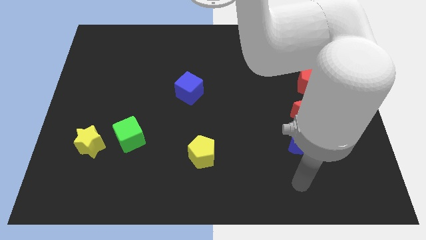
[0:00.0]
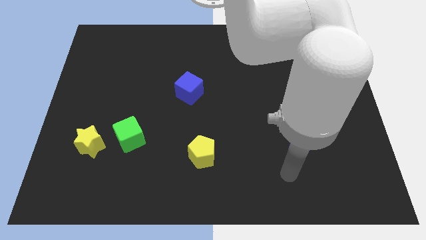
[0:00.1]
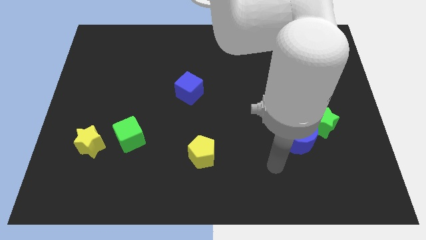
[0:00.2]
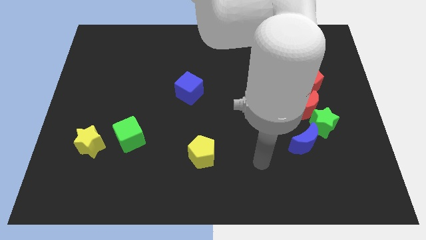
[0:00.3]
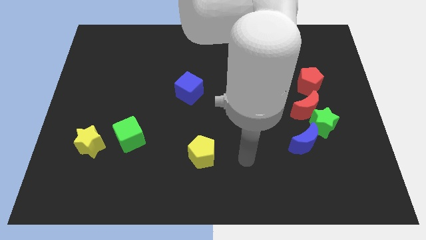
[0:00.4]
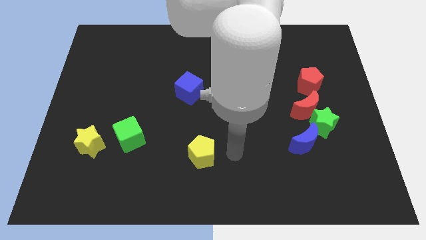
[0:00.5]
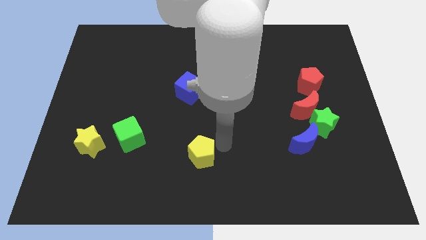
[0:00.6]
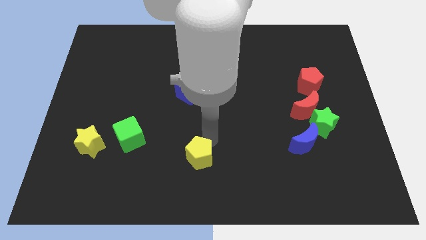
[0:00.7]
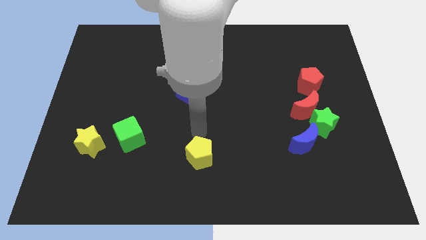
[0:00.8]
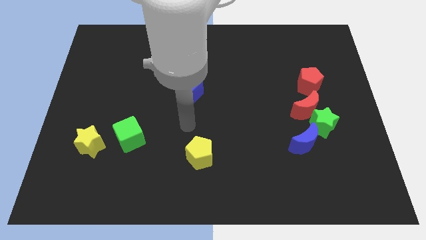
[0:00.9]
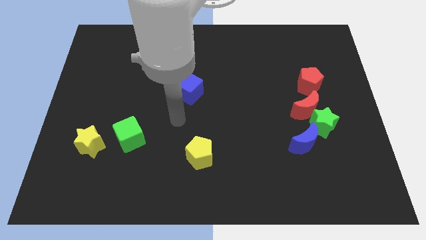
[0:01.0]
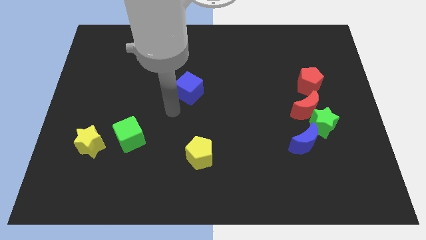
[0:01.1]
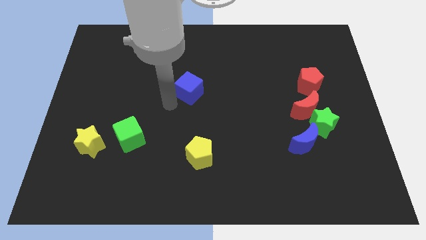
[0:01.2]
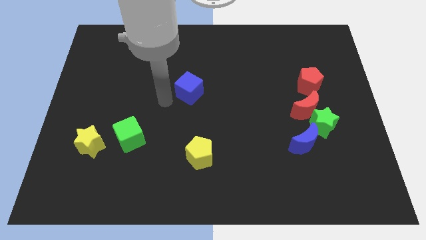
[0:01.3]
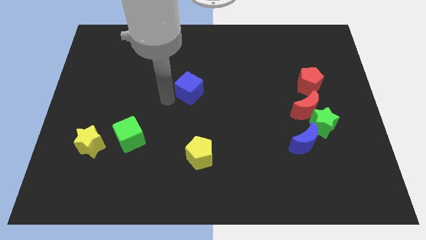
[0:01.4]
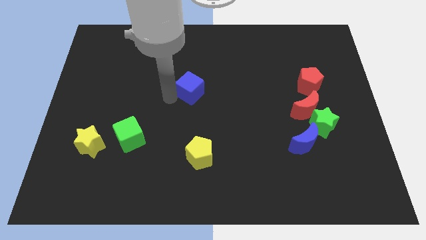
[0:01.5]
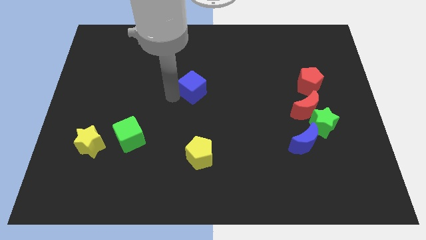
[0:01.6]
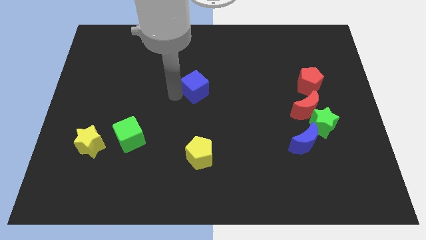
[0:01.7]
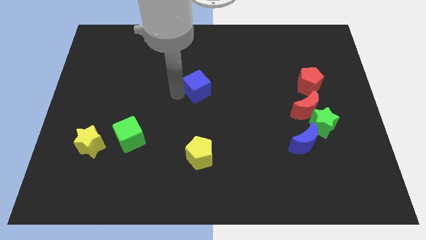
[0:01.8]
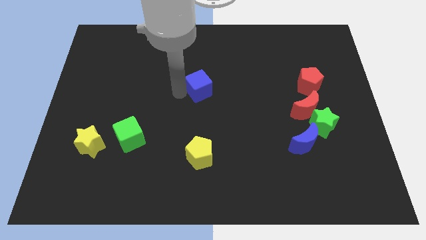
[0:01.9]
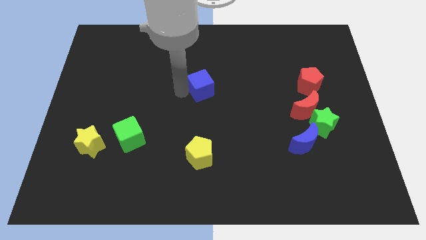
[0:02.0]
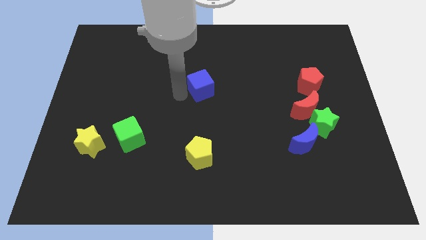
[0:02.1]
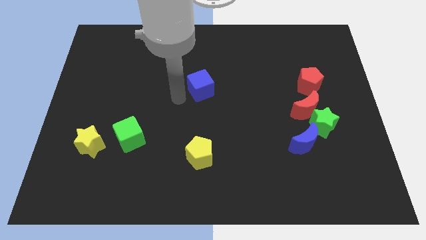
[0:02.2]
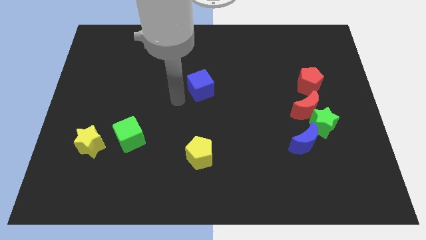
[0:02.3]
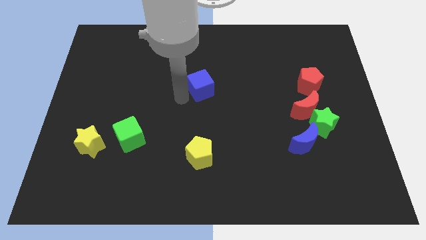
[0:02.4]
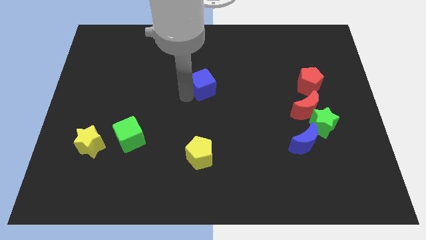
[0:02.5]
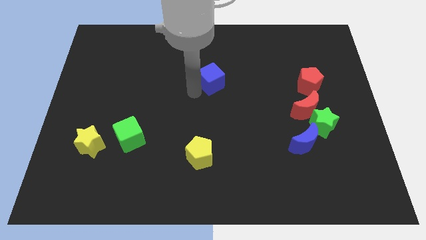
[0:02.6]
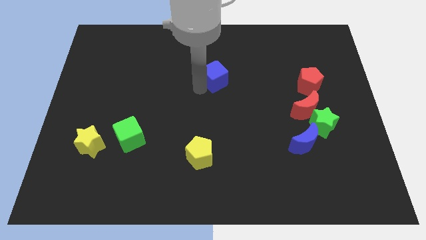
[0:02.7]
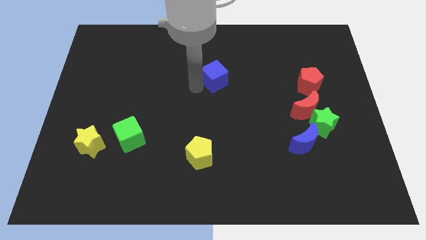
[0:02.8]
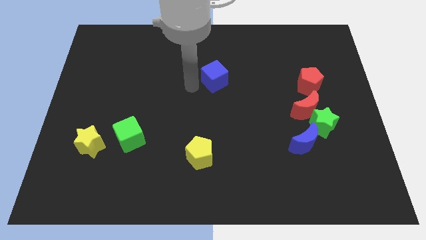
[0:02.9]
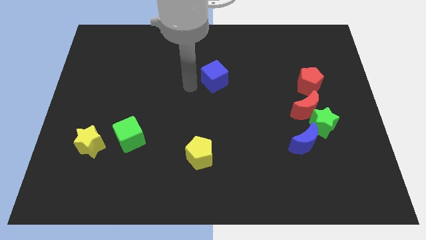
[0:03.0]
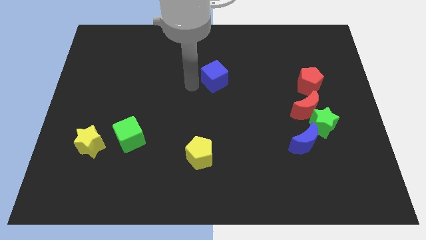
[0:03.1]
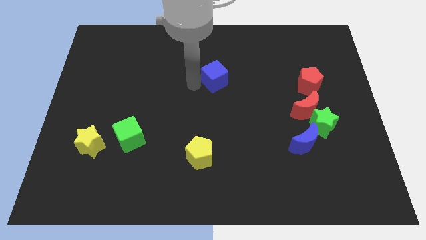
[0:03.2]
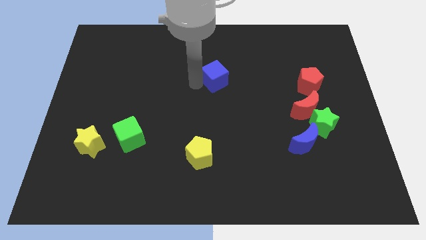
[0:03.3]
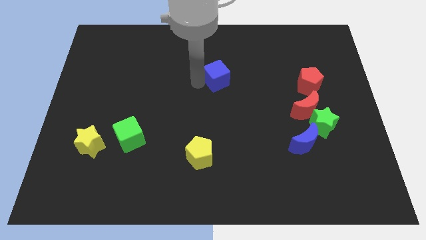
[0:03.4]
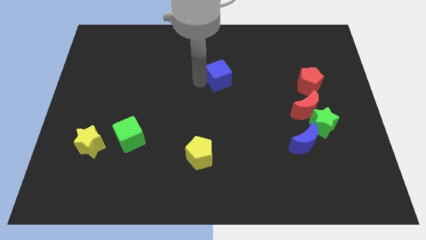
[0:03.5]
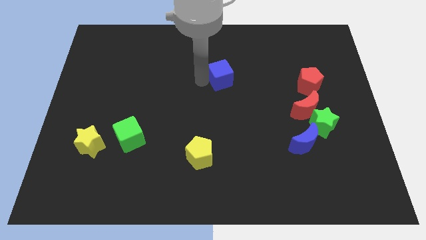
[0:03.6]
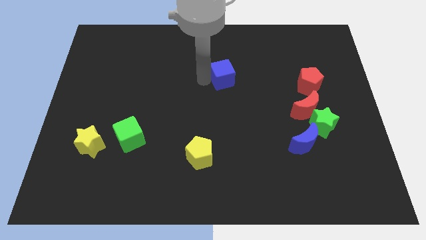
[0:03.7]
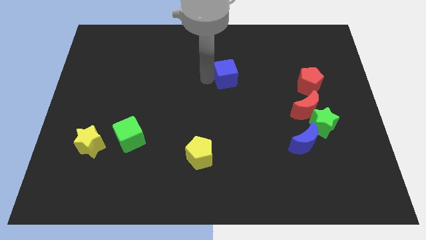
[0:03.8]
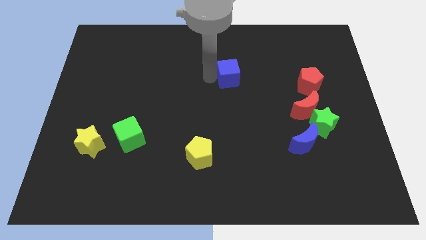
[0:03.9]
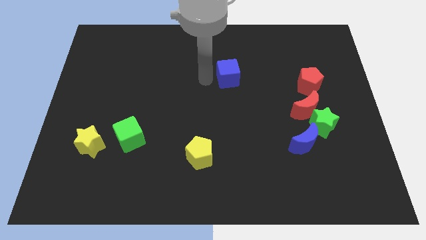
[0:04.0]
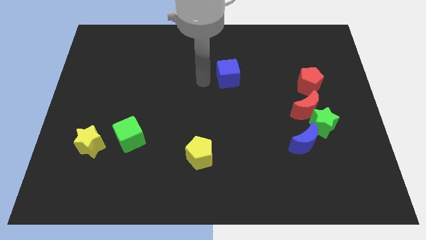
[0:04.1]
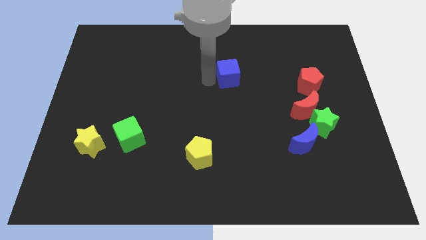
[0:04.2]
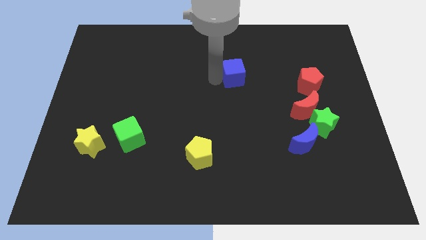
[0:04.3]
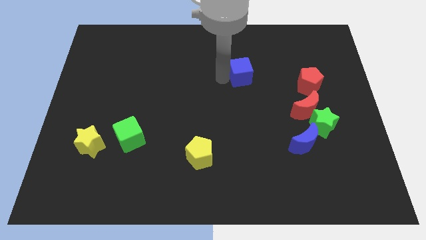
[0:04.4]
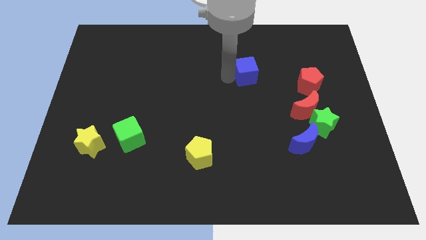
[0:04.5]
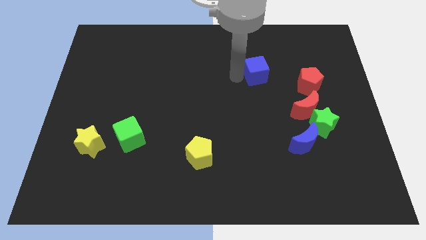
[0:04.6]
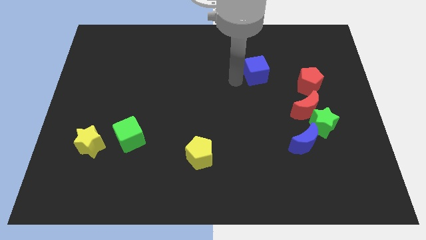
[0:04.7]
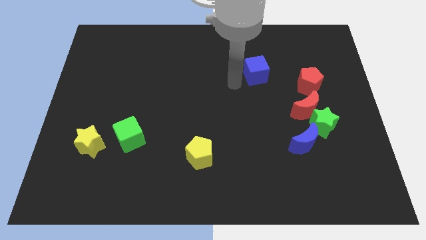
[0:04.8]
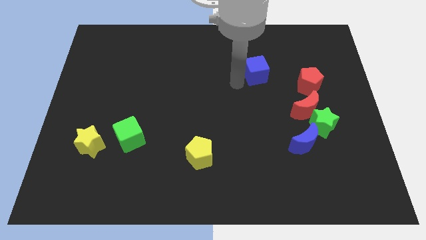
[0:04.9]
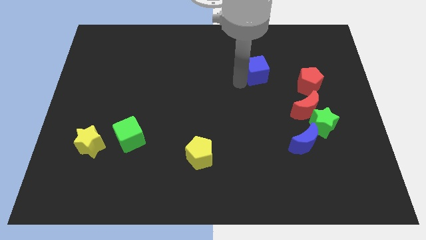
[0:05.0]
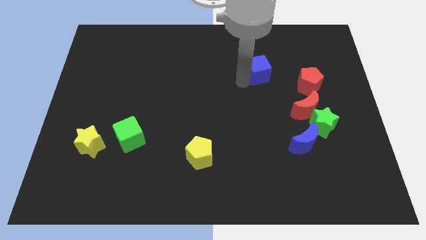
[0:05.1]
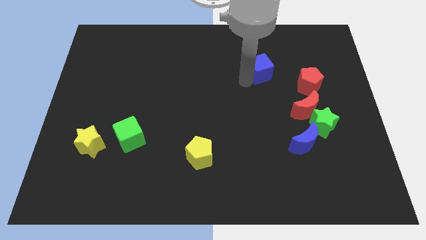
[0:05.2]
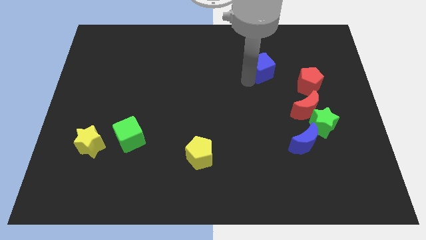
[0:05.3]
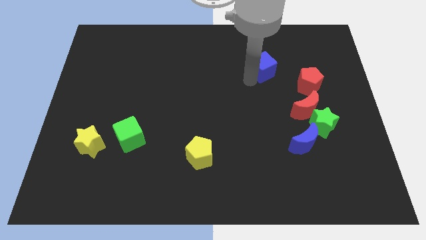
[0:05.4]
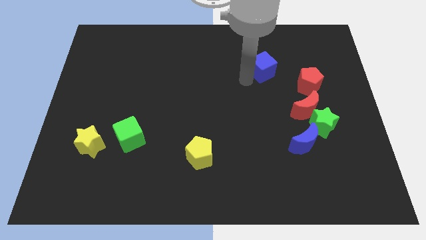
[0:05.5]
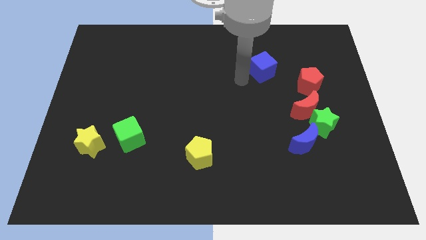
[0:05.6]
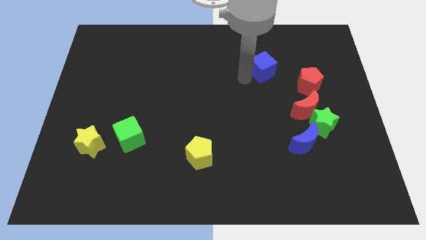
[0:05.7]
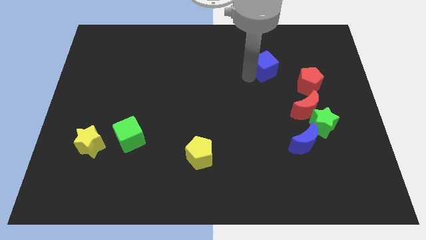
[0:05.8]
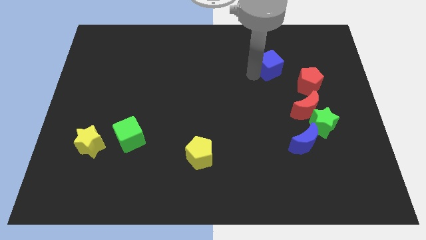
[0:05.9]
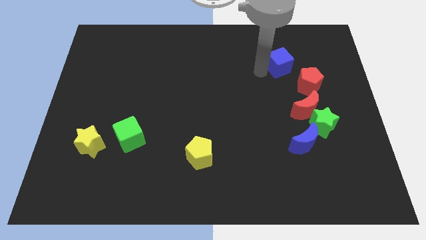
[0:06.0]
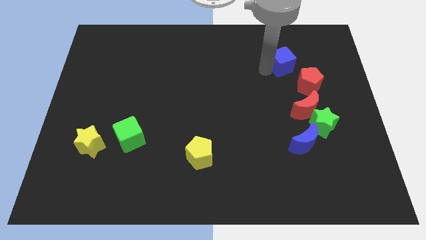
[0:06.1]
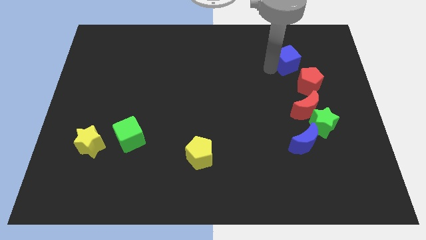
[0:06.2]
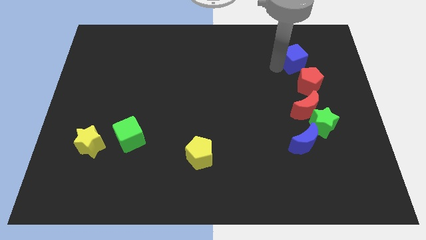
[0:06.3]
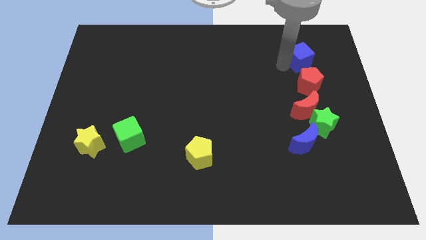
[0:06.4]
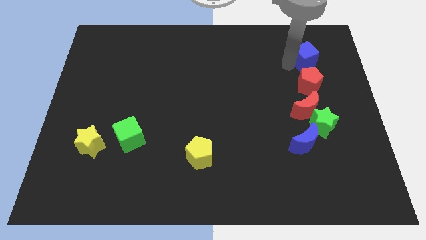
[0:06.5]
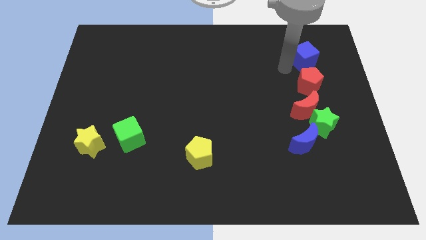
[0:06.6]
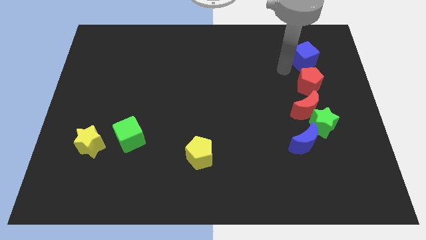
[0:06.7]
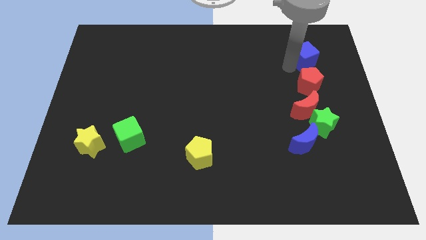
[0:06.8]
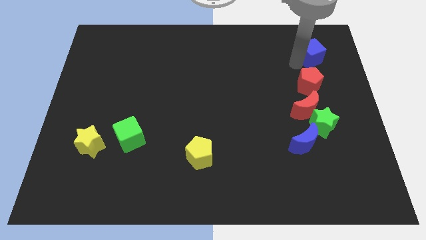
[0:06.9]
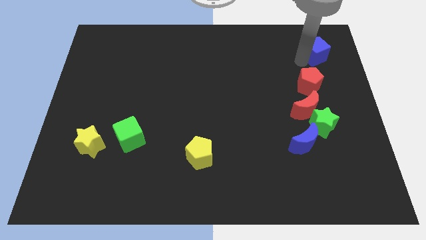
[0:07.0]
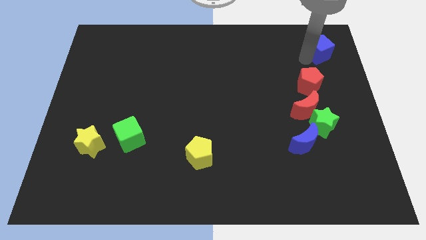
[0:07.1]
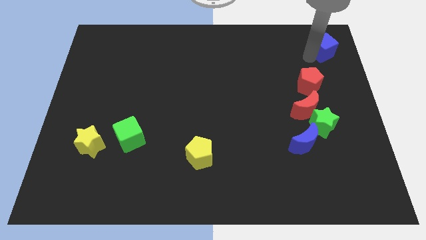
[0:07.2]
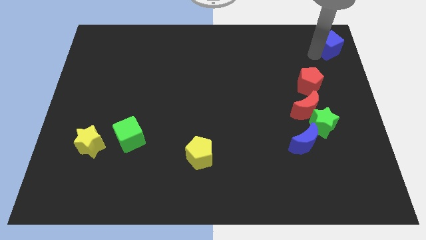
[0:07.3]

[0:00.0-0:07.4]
put the blue cube to the top right
